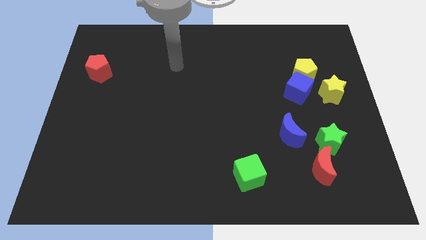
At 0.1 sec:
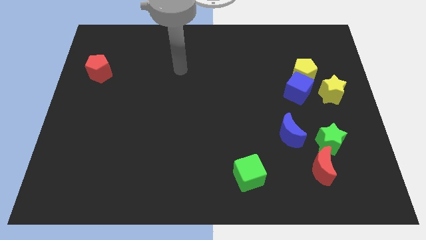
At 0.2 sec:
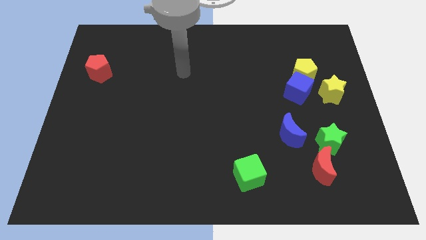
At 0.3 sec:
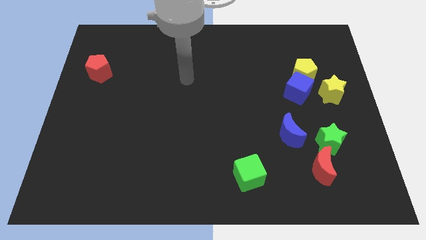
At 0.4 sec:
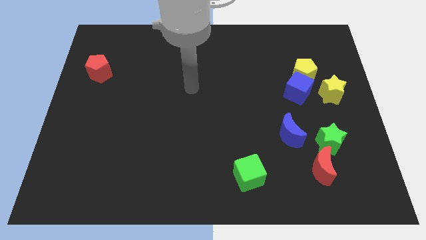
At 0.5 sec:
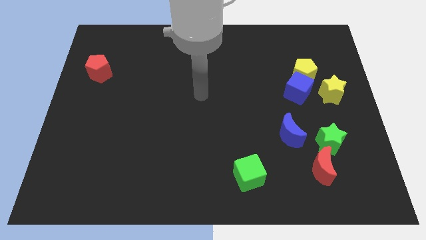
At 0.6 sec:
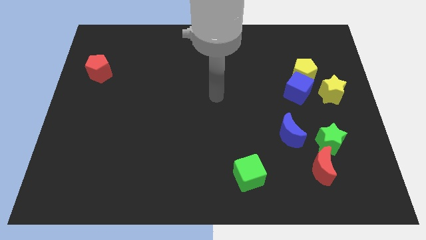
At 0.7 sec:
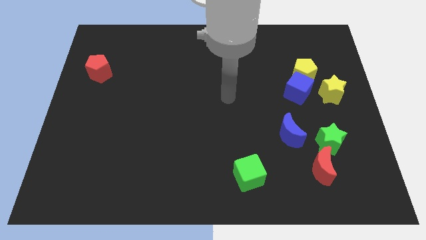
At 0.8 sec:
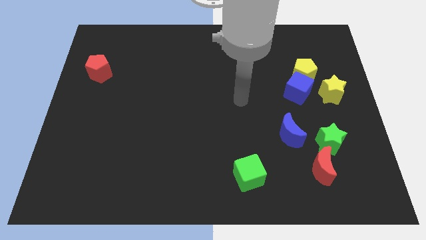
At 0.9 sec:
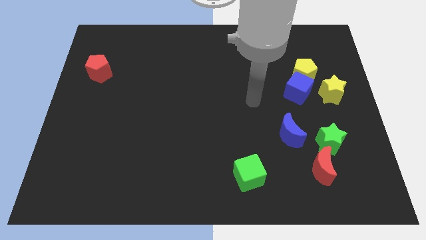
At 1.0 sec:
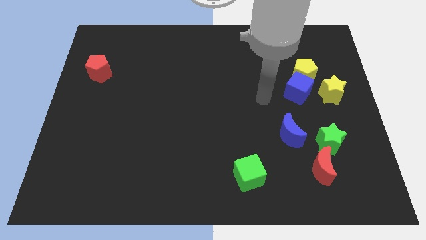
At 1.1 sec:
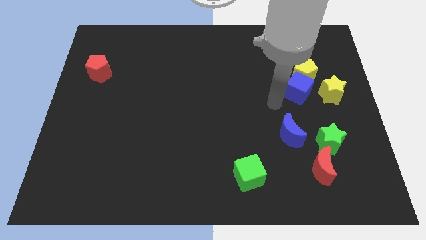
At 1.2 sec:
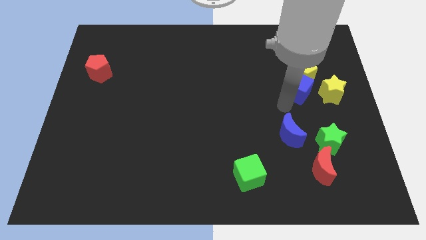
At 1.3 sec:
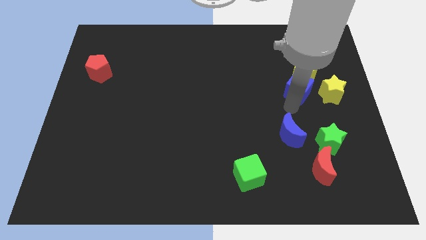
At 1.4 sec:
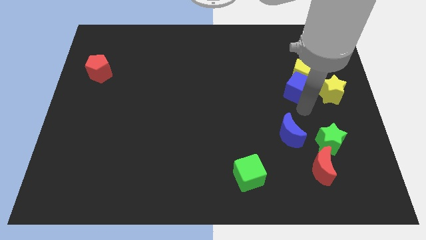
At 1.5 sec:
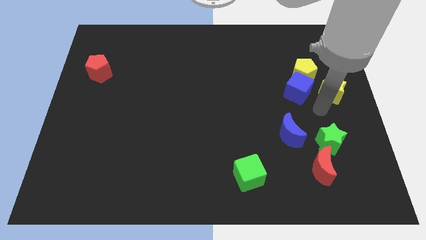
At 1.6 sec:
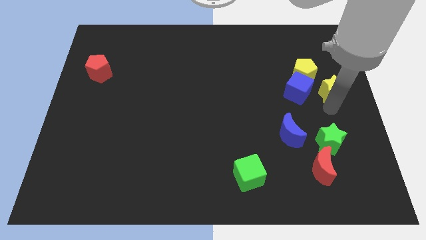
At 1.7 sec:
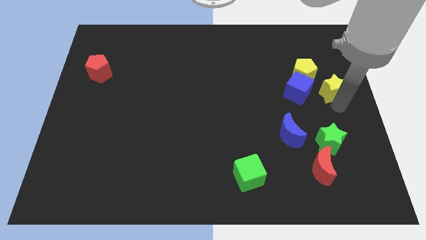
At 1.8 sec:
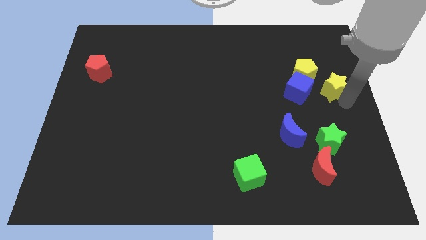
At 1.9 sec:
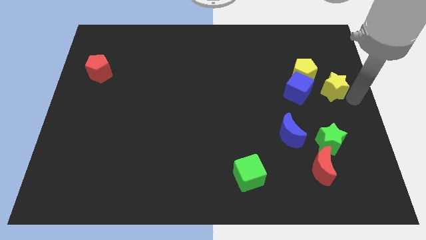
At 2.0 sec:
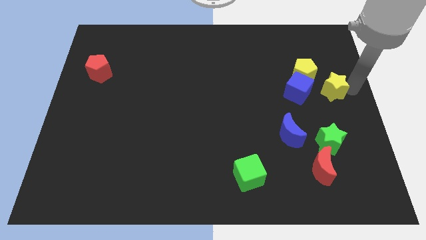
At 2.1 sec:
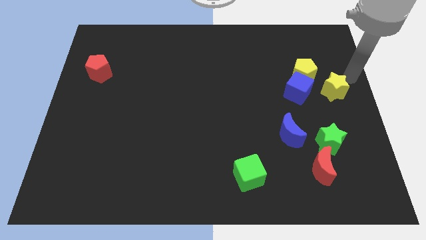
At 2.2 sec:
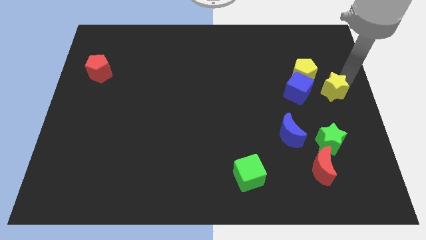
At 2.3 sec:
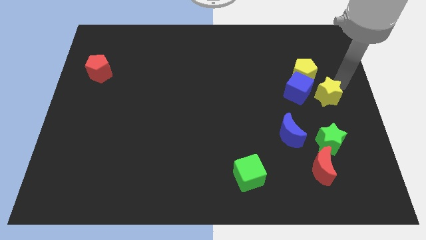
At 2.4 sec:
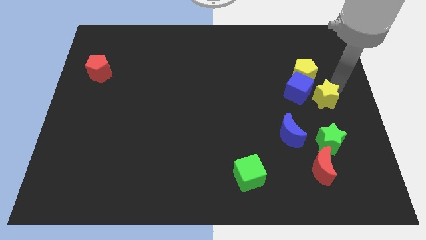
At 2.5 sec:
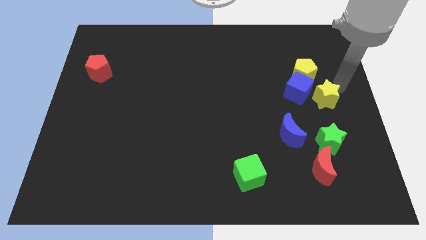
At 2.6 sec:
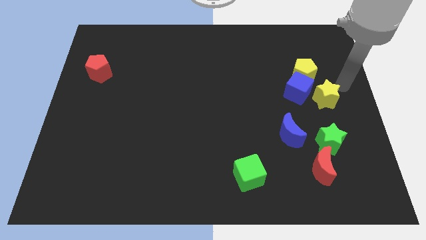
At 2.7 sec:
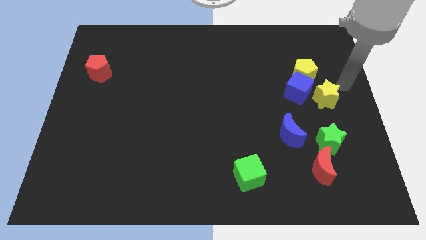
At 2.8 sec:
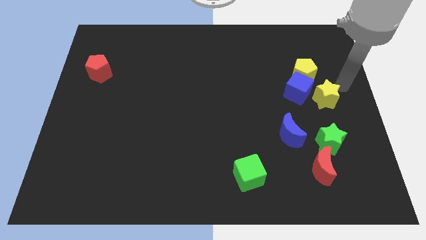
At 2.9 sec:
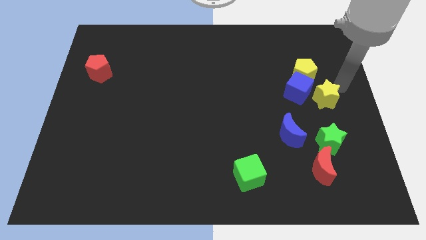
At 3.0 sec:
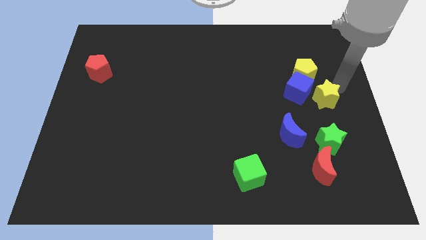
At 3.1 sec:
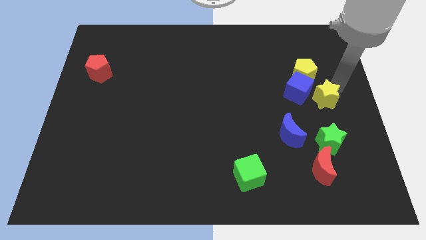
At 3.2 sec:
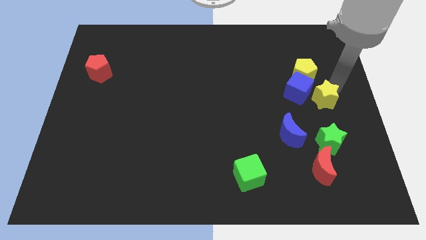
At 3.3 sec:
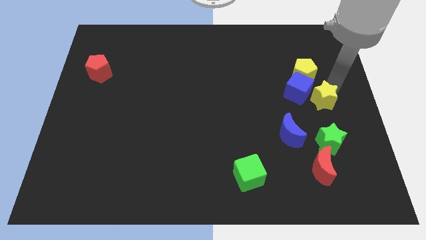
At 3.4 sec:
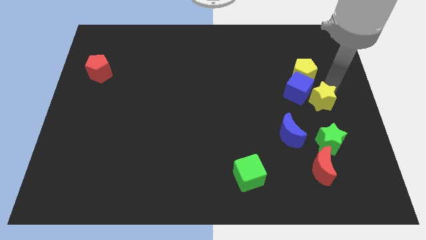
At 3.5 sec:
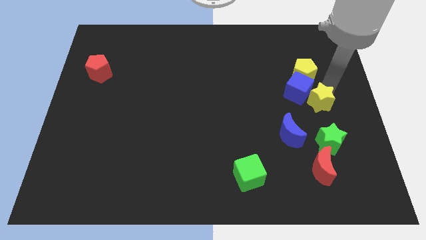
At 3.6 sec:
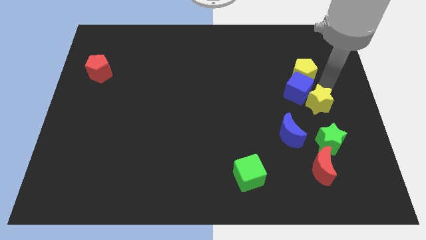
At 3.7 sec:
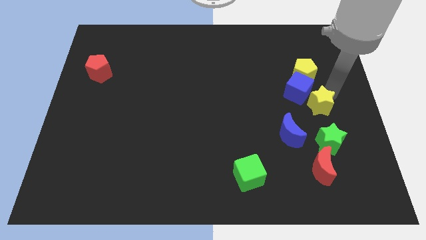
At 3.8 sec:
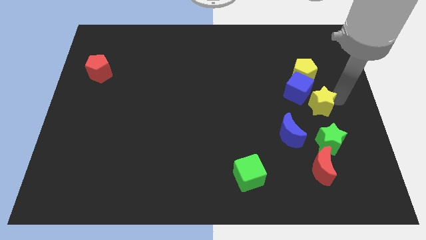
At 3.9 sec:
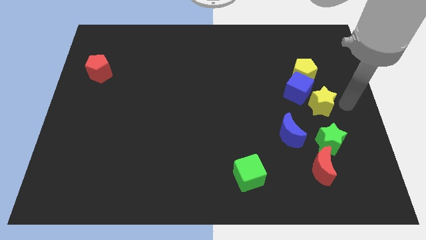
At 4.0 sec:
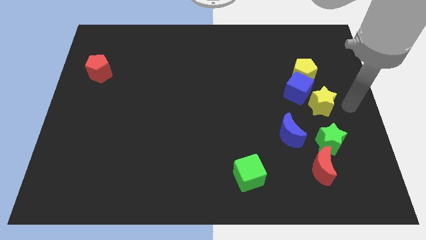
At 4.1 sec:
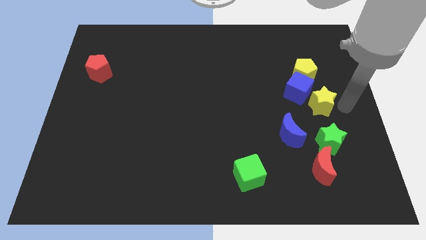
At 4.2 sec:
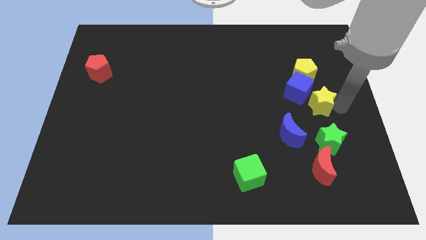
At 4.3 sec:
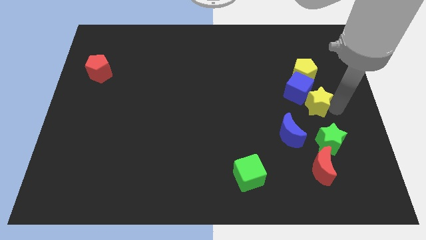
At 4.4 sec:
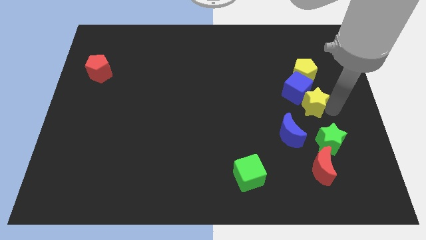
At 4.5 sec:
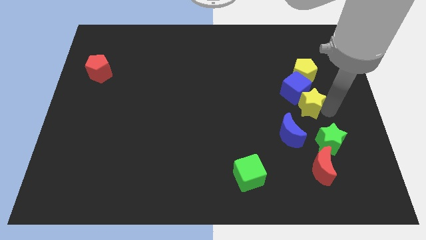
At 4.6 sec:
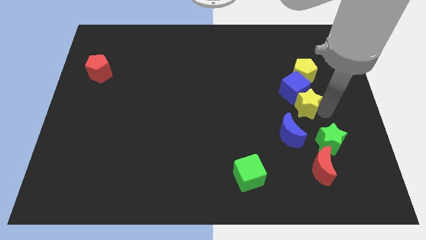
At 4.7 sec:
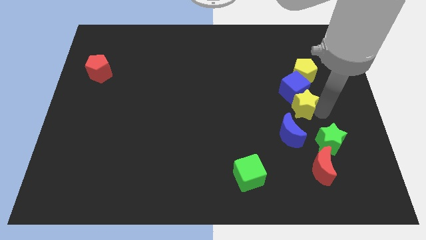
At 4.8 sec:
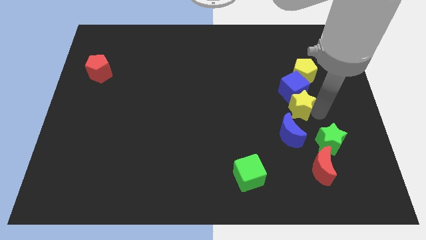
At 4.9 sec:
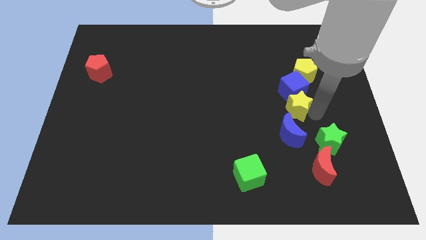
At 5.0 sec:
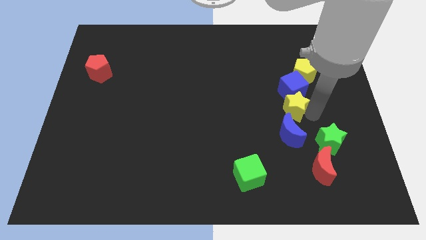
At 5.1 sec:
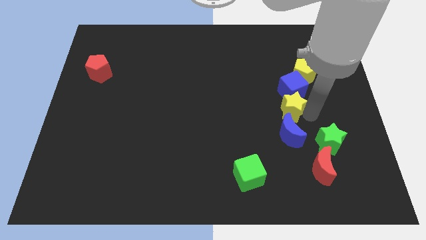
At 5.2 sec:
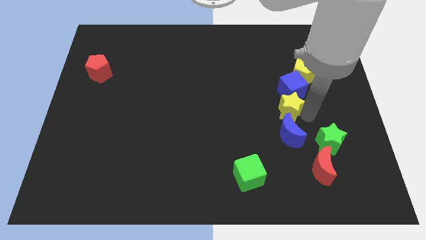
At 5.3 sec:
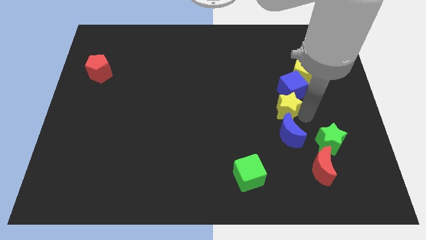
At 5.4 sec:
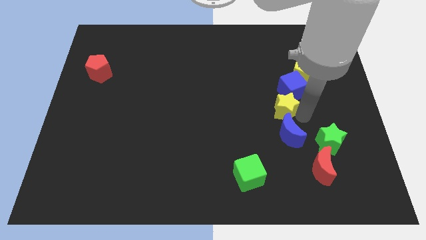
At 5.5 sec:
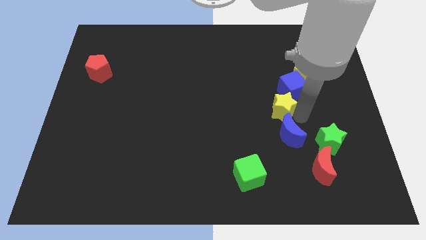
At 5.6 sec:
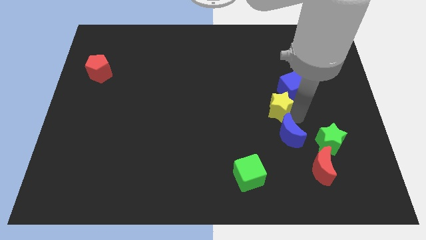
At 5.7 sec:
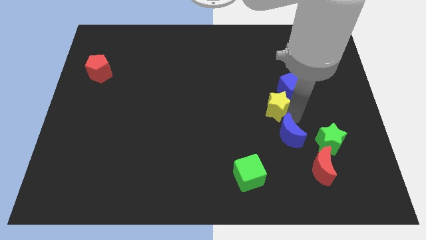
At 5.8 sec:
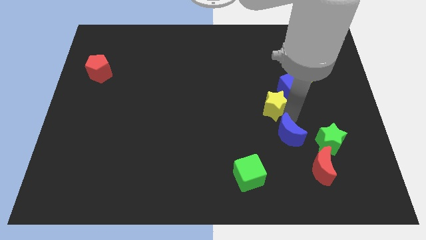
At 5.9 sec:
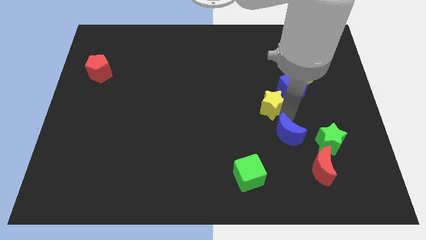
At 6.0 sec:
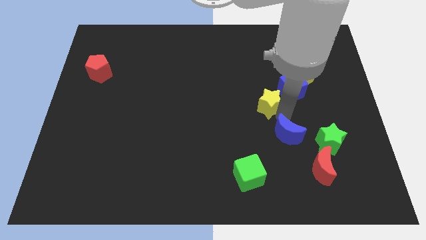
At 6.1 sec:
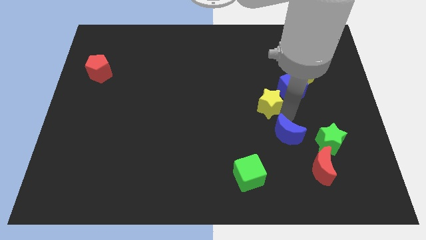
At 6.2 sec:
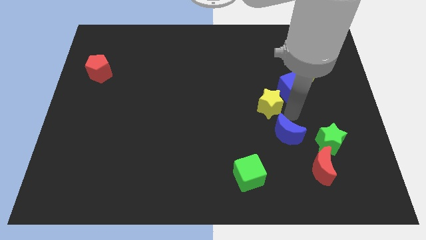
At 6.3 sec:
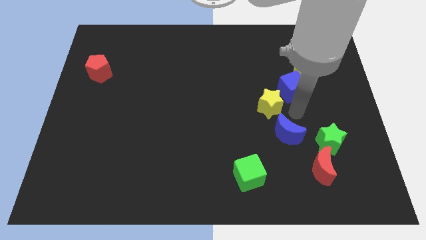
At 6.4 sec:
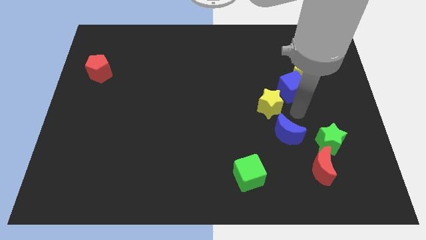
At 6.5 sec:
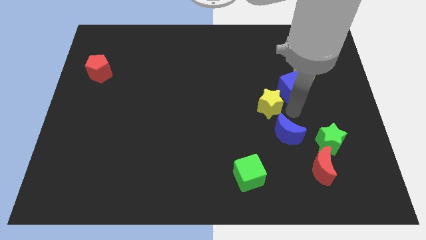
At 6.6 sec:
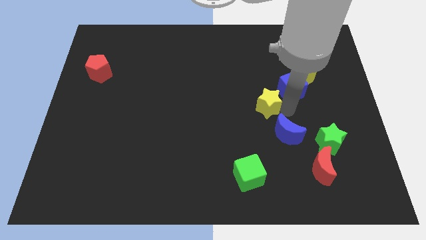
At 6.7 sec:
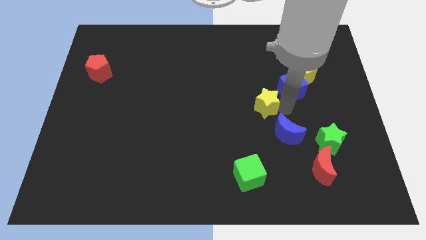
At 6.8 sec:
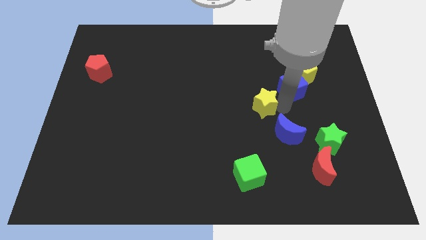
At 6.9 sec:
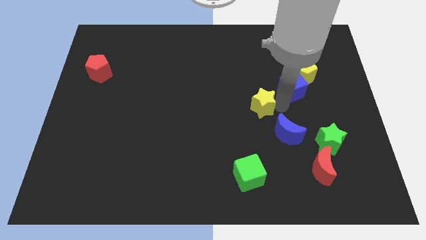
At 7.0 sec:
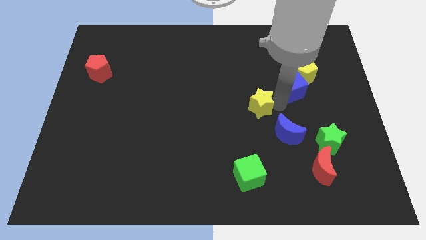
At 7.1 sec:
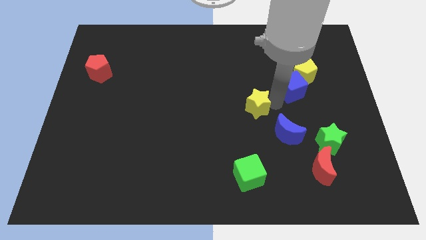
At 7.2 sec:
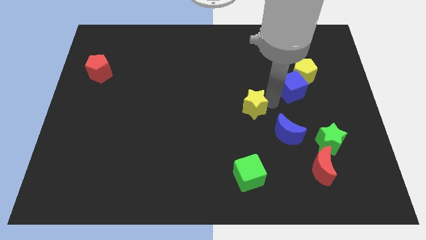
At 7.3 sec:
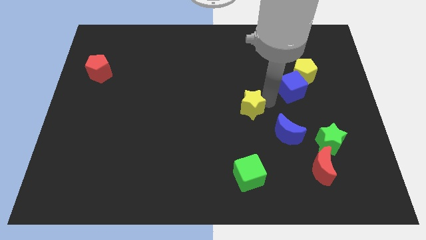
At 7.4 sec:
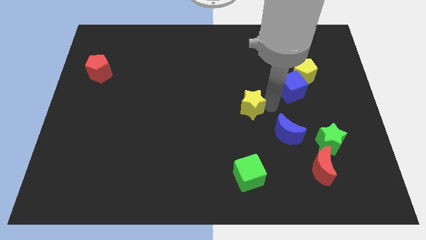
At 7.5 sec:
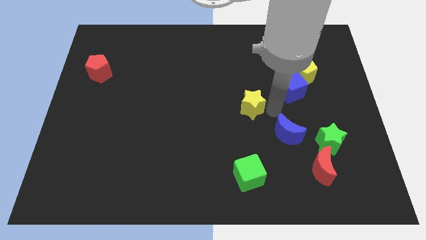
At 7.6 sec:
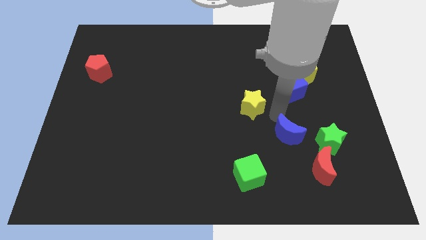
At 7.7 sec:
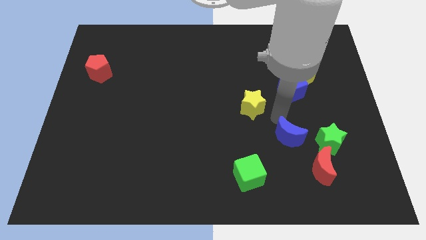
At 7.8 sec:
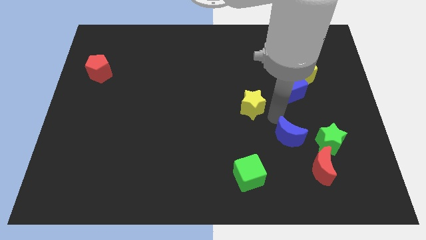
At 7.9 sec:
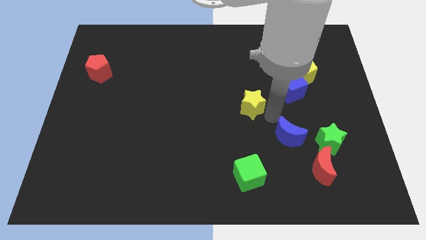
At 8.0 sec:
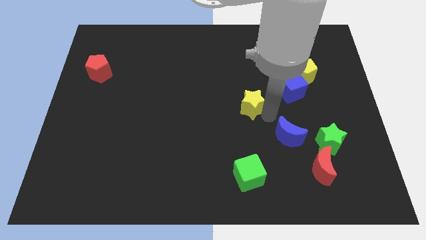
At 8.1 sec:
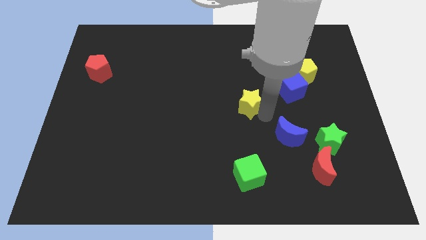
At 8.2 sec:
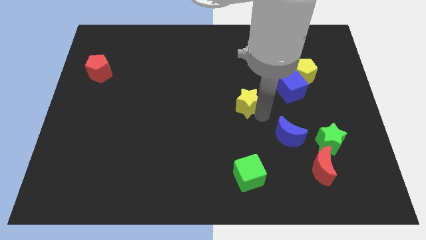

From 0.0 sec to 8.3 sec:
move the yellow star left
